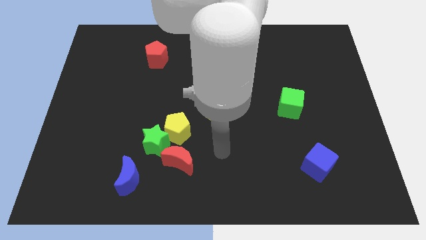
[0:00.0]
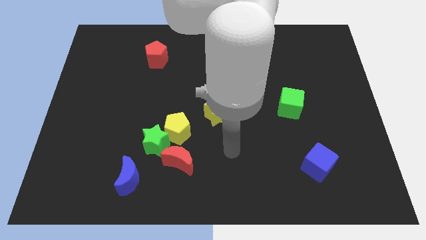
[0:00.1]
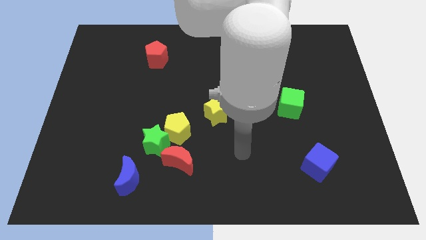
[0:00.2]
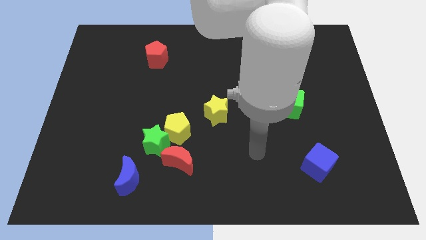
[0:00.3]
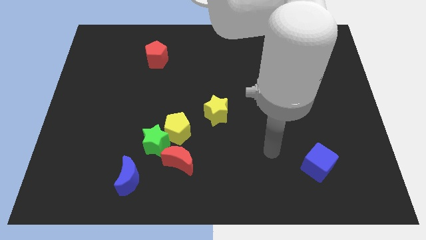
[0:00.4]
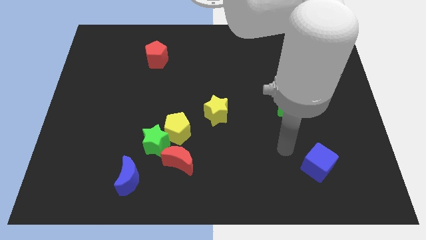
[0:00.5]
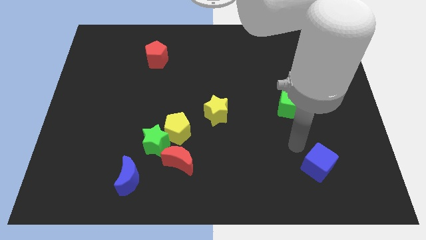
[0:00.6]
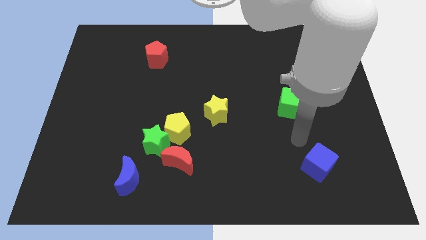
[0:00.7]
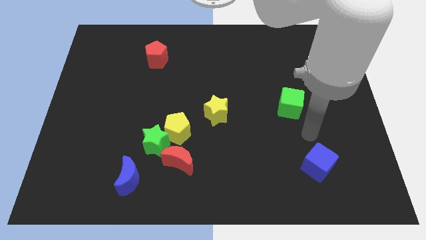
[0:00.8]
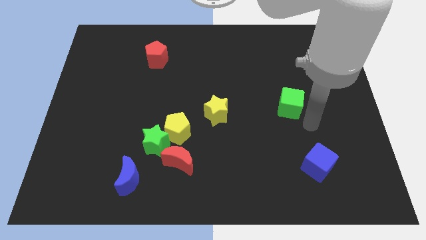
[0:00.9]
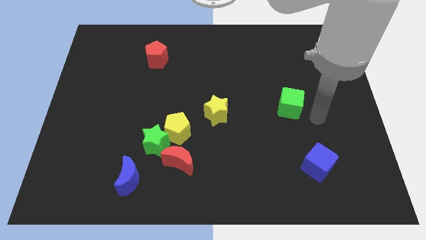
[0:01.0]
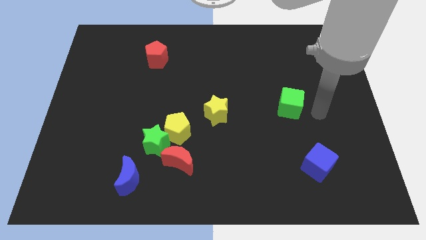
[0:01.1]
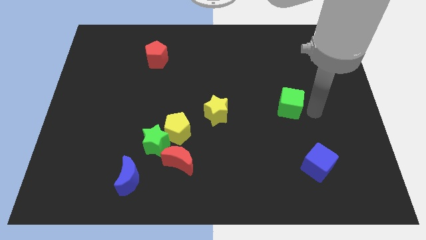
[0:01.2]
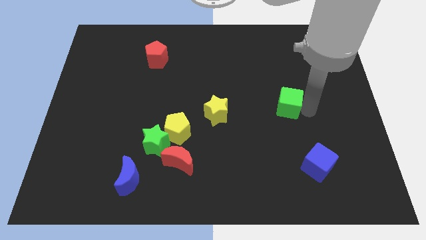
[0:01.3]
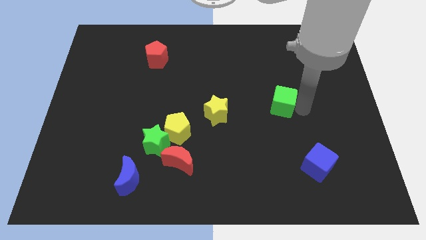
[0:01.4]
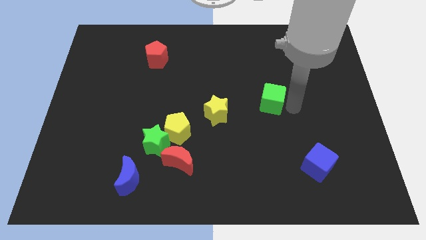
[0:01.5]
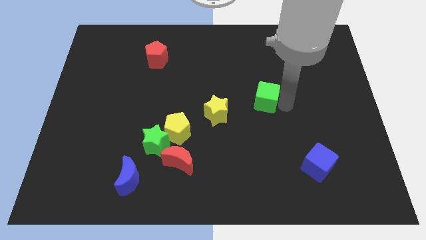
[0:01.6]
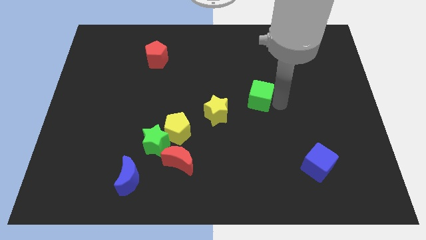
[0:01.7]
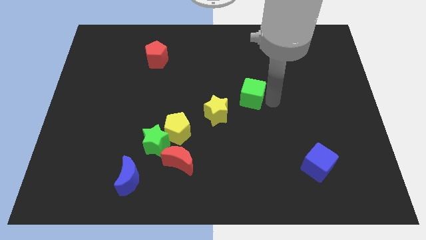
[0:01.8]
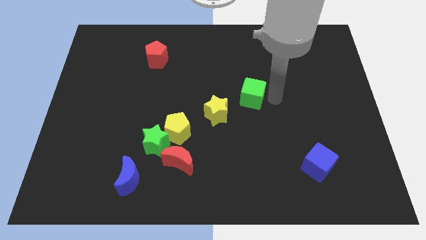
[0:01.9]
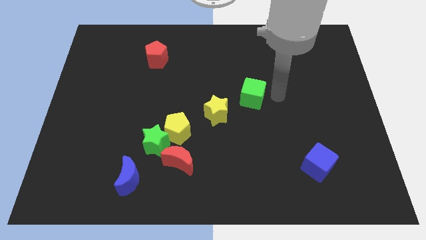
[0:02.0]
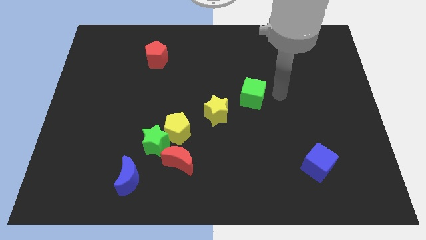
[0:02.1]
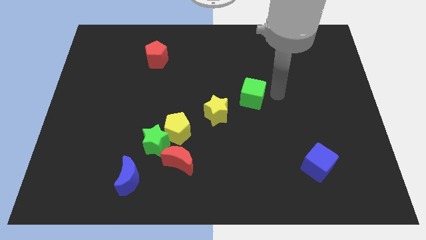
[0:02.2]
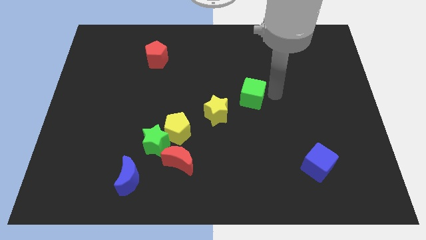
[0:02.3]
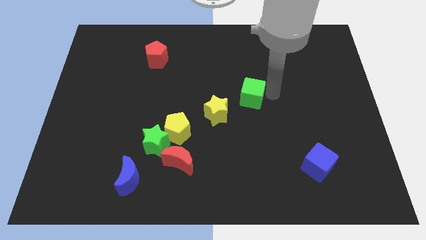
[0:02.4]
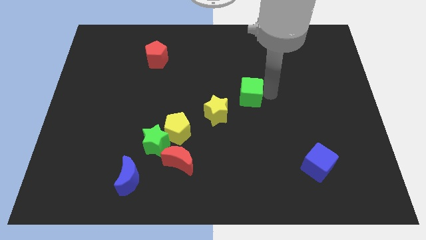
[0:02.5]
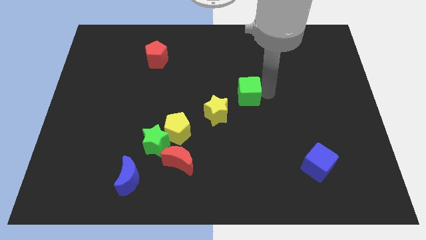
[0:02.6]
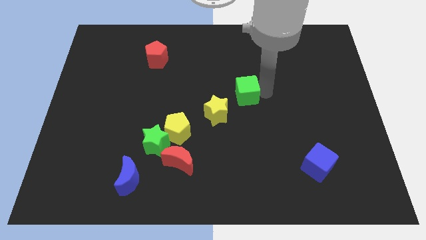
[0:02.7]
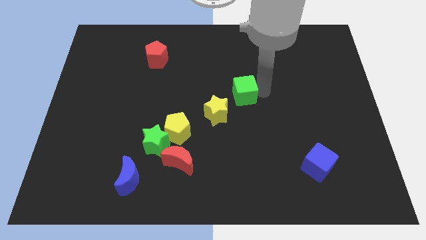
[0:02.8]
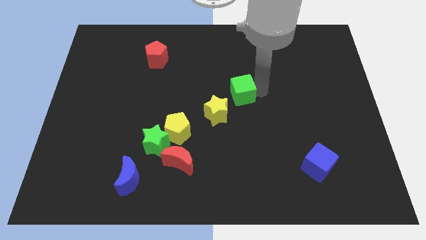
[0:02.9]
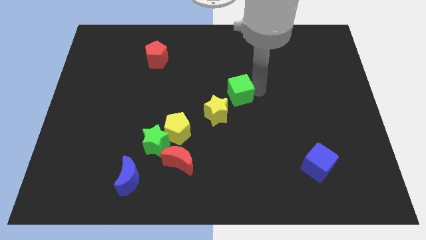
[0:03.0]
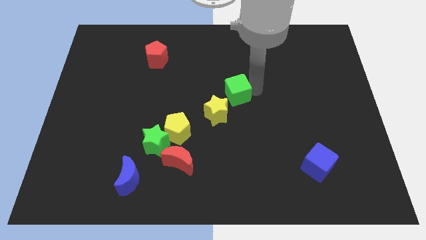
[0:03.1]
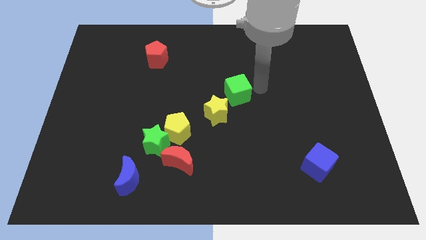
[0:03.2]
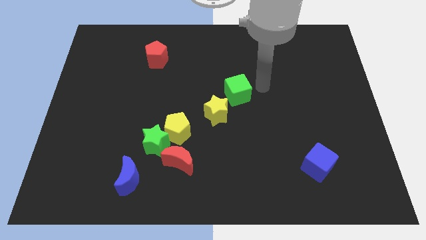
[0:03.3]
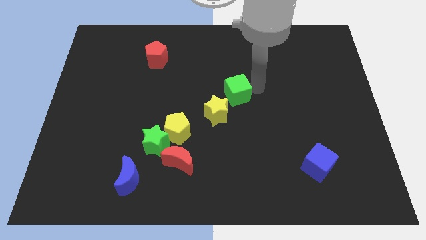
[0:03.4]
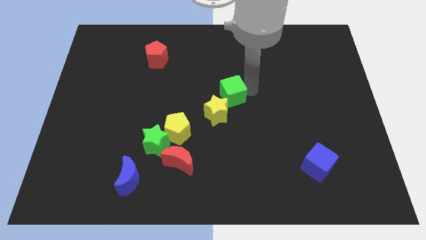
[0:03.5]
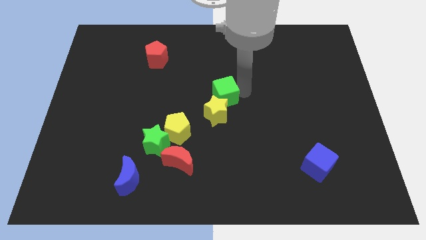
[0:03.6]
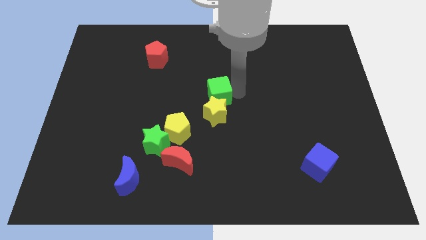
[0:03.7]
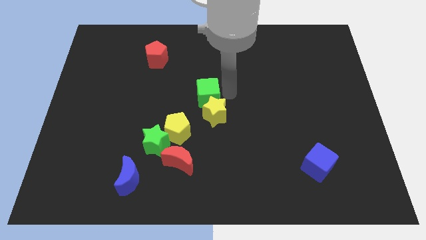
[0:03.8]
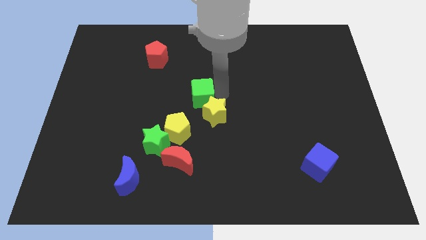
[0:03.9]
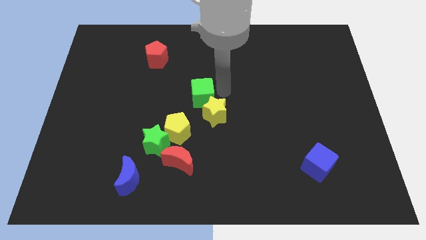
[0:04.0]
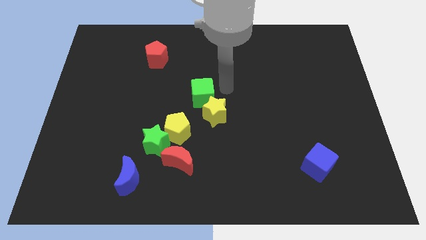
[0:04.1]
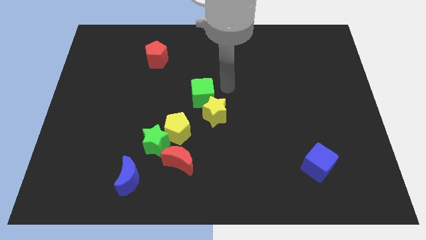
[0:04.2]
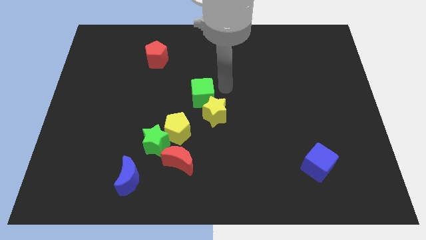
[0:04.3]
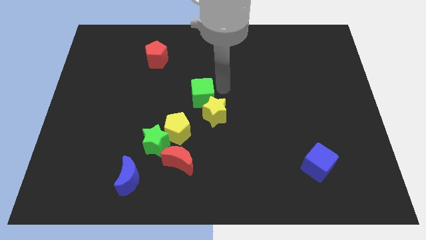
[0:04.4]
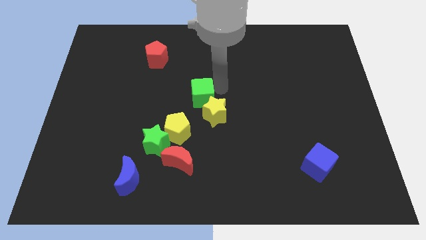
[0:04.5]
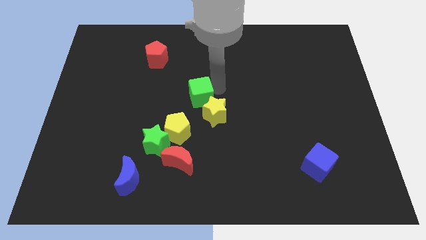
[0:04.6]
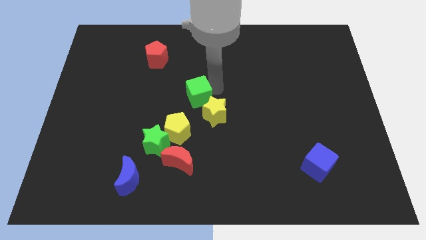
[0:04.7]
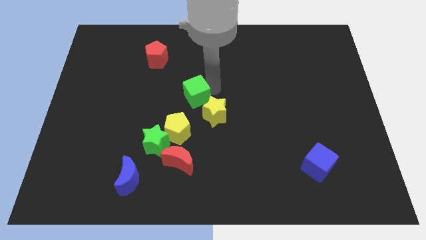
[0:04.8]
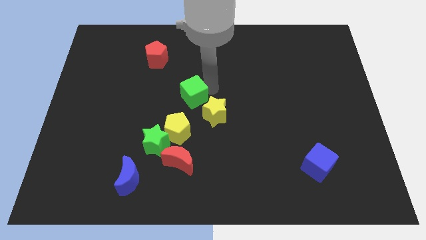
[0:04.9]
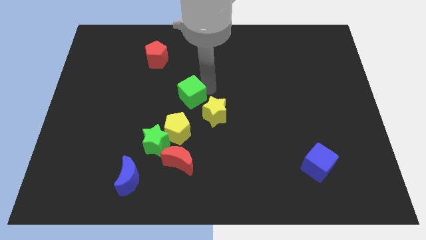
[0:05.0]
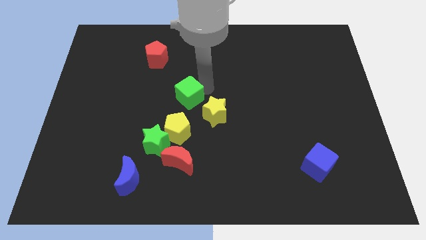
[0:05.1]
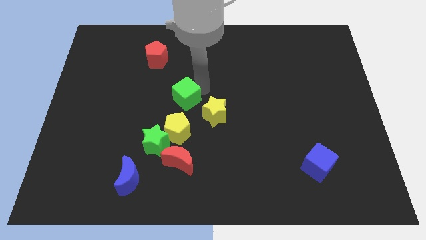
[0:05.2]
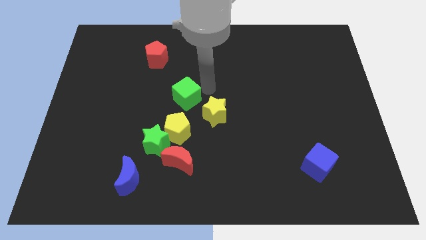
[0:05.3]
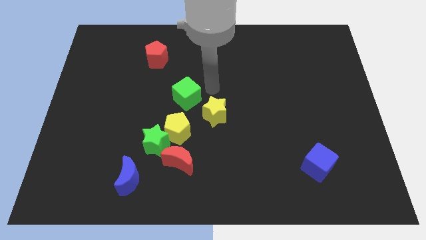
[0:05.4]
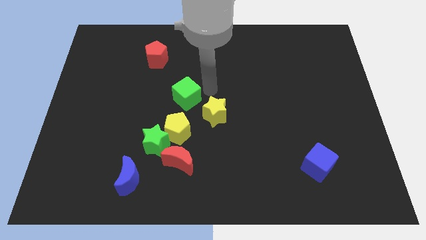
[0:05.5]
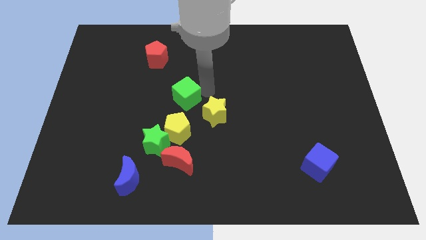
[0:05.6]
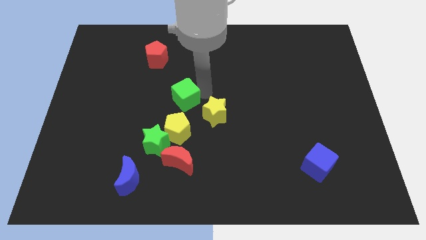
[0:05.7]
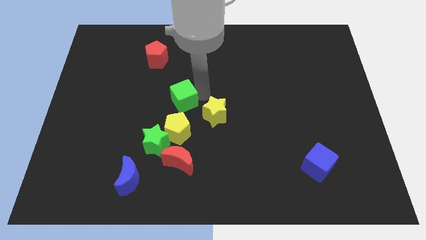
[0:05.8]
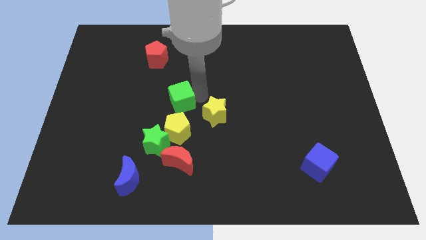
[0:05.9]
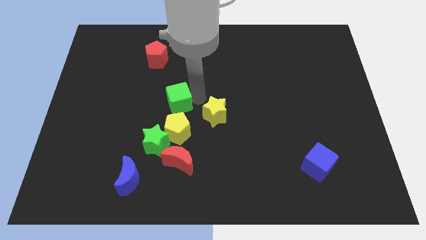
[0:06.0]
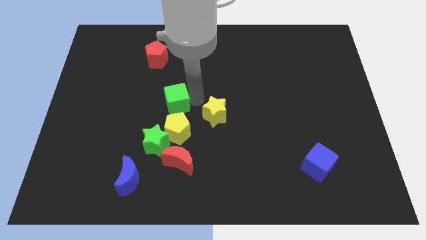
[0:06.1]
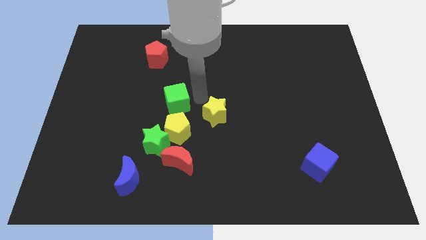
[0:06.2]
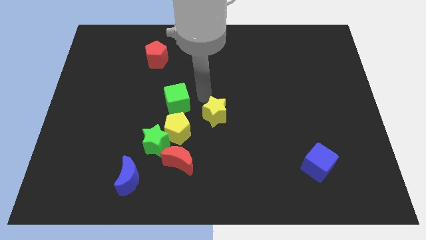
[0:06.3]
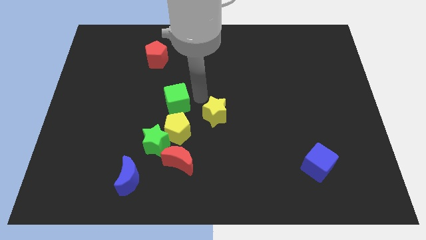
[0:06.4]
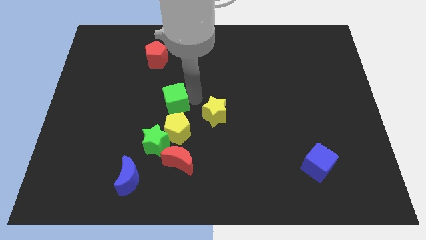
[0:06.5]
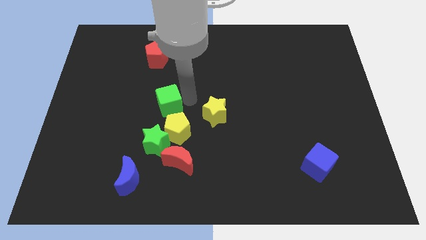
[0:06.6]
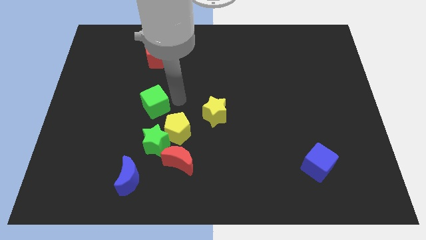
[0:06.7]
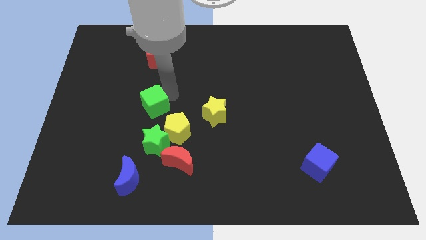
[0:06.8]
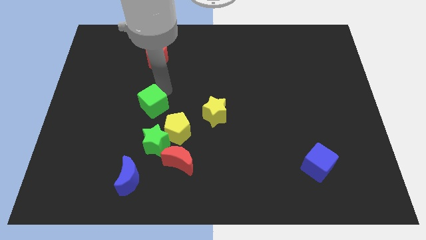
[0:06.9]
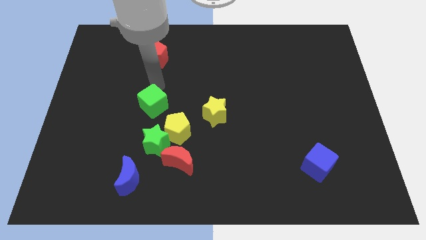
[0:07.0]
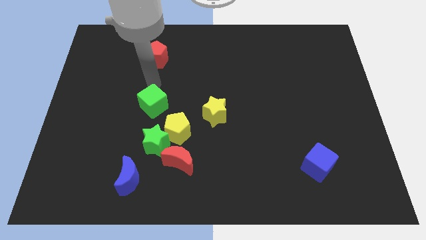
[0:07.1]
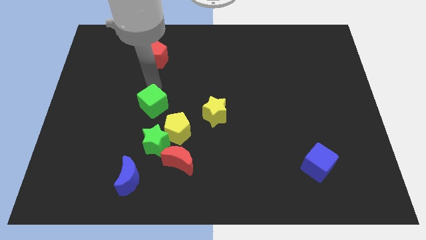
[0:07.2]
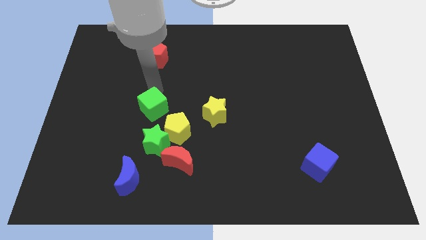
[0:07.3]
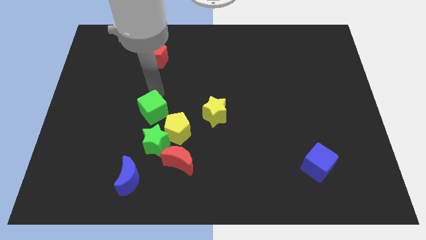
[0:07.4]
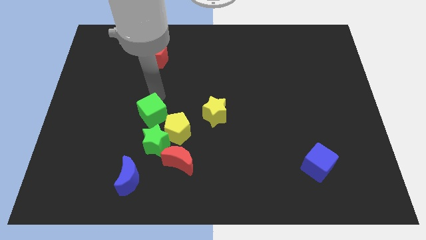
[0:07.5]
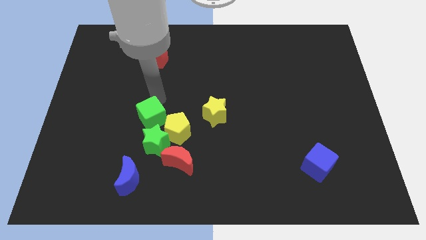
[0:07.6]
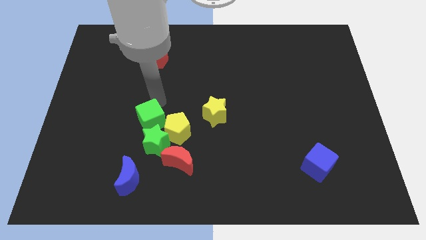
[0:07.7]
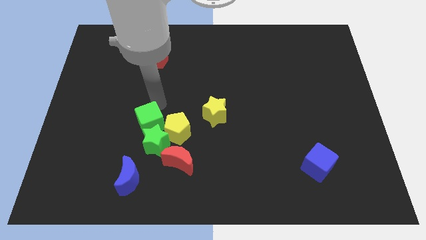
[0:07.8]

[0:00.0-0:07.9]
put the green cube close to the green star
